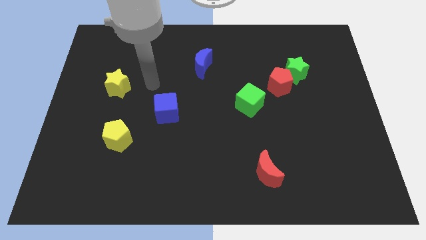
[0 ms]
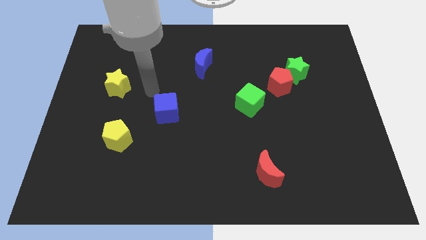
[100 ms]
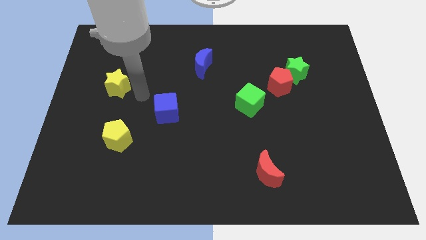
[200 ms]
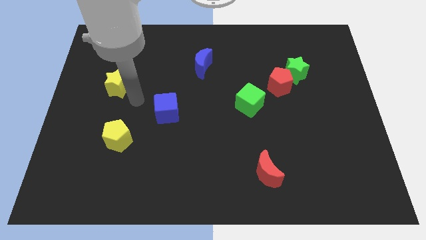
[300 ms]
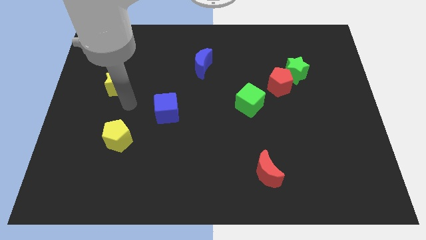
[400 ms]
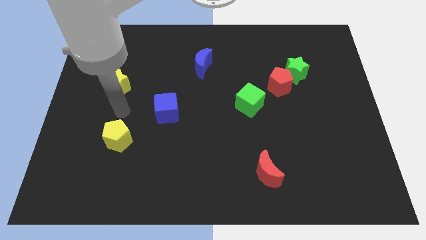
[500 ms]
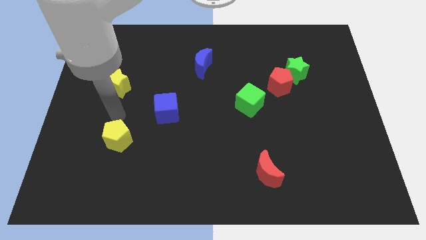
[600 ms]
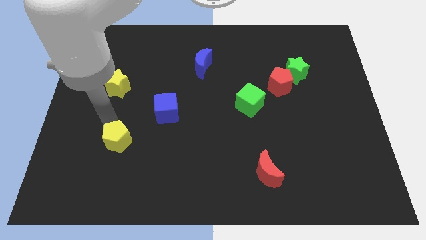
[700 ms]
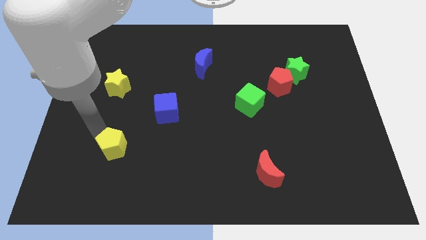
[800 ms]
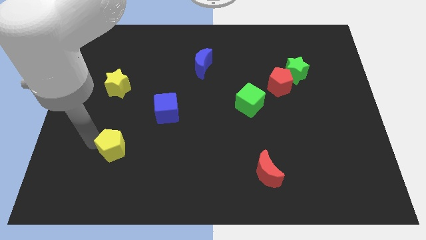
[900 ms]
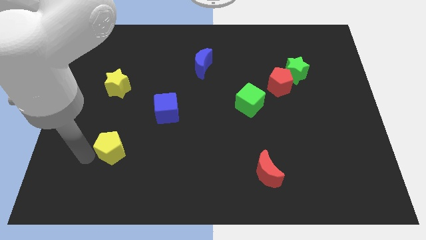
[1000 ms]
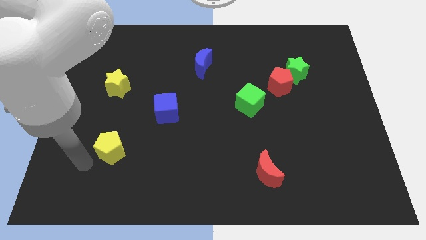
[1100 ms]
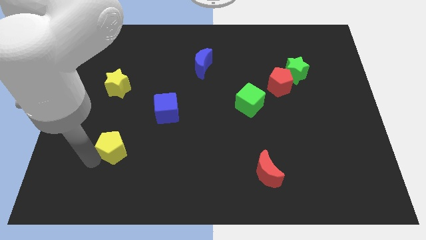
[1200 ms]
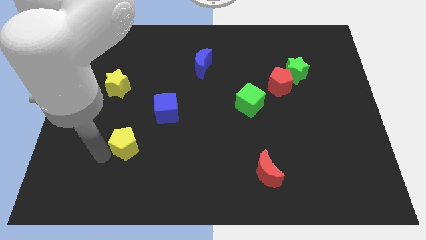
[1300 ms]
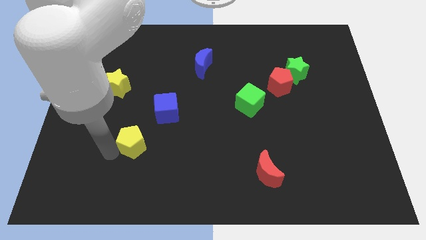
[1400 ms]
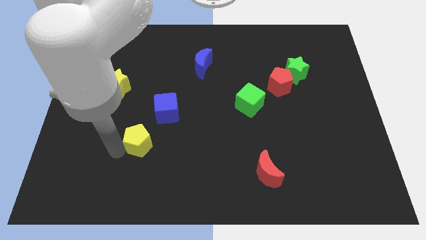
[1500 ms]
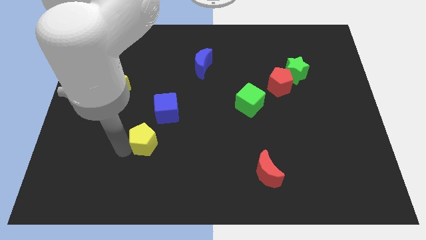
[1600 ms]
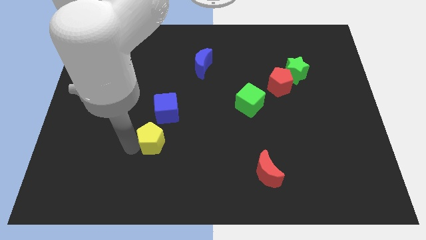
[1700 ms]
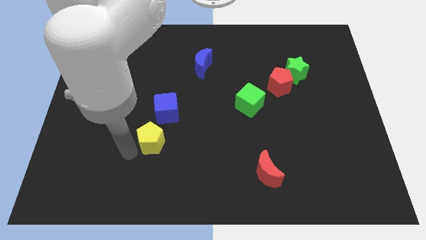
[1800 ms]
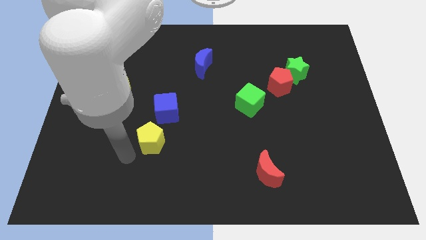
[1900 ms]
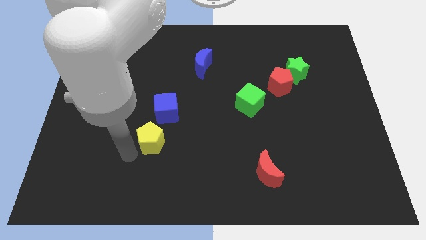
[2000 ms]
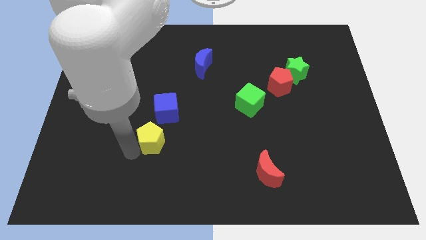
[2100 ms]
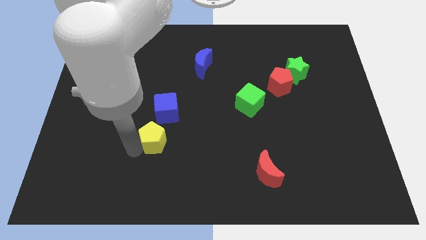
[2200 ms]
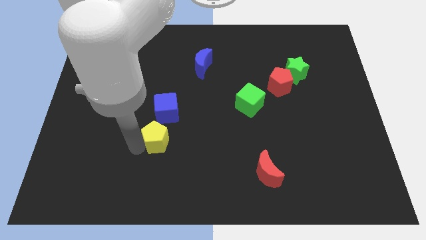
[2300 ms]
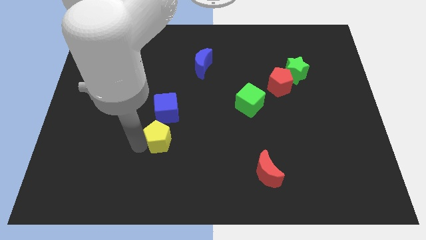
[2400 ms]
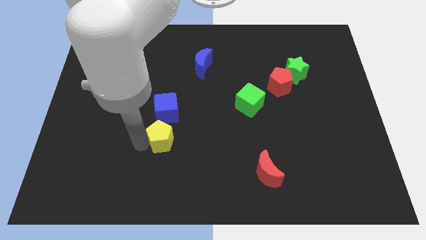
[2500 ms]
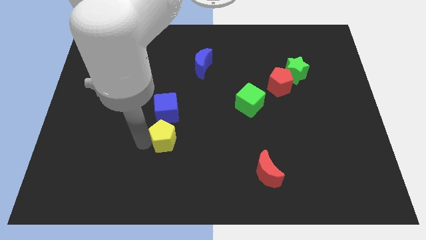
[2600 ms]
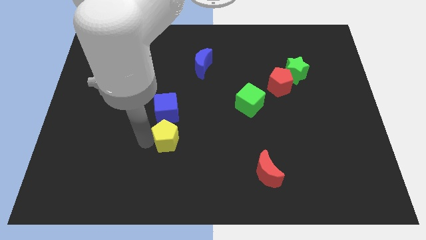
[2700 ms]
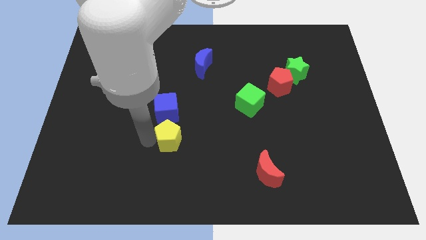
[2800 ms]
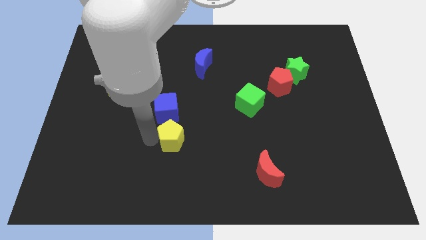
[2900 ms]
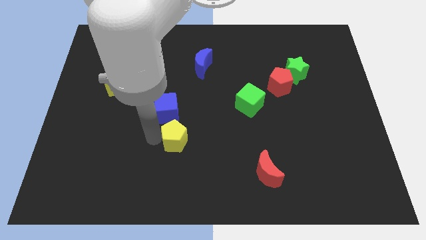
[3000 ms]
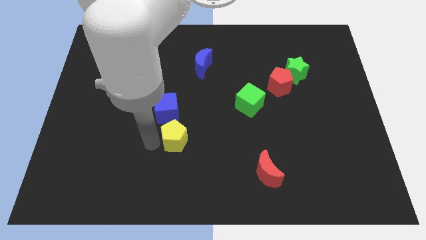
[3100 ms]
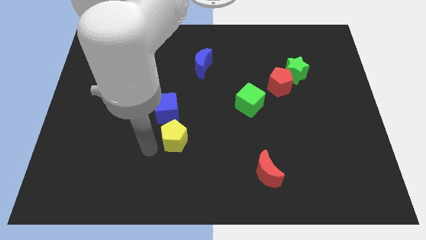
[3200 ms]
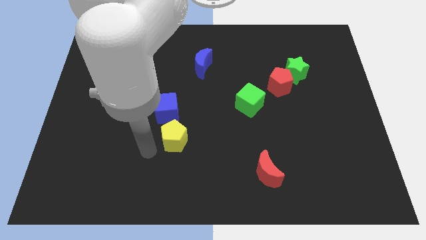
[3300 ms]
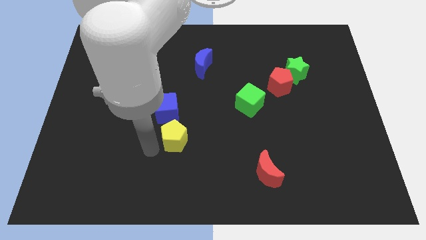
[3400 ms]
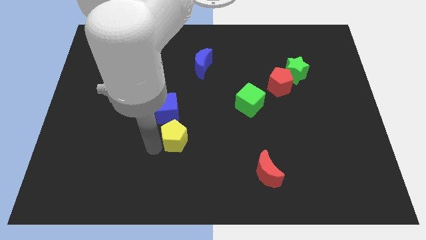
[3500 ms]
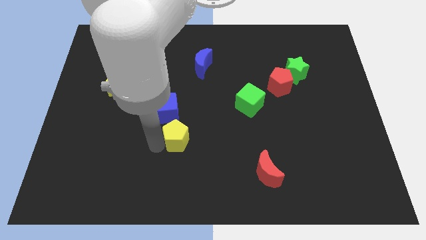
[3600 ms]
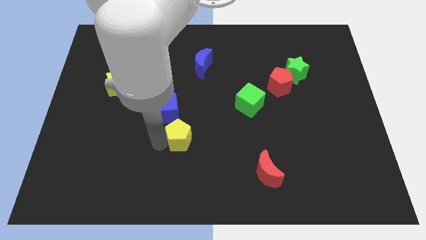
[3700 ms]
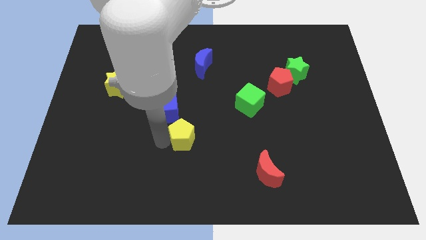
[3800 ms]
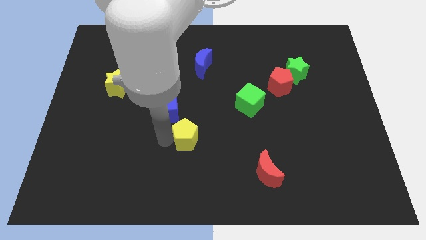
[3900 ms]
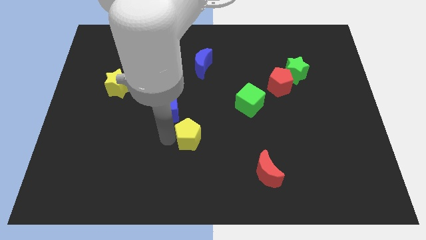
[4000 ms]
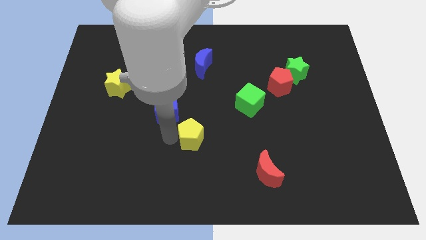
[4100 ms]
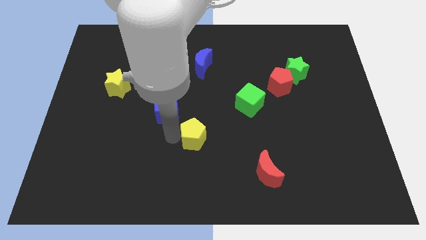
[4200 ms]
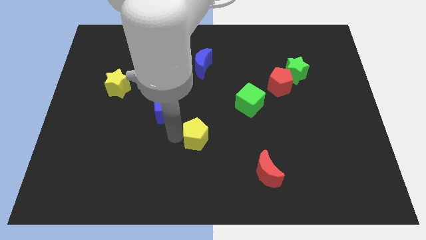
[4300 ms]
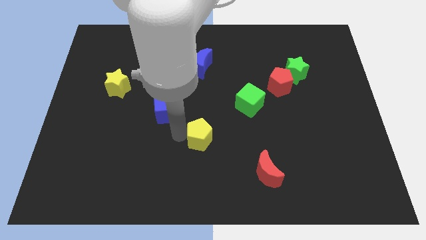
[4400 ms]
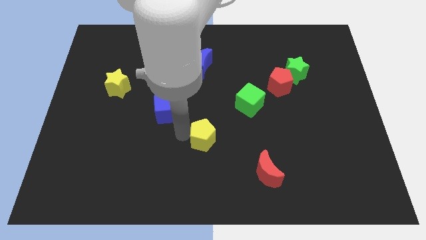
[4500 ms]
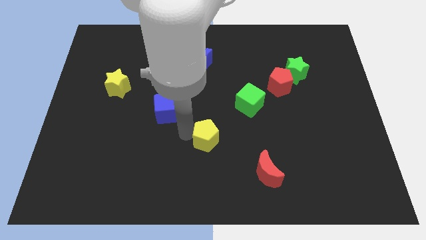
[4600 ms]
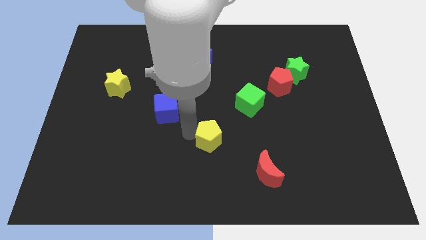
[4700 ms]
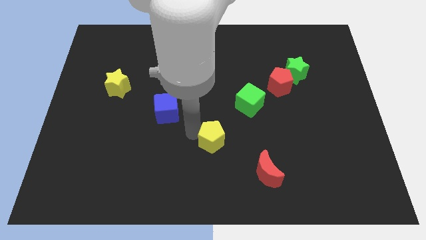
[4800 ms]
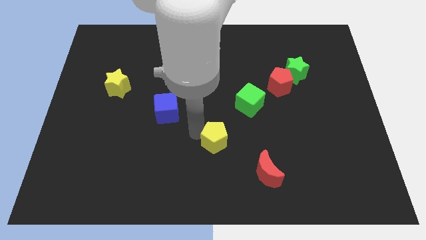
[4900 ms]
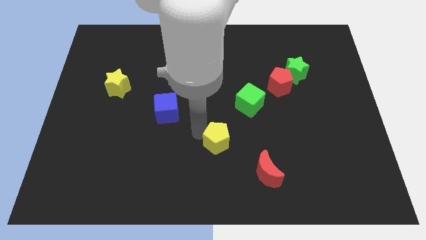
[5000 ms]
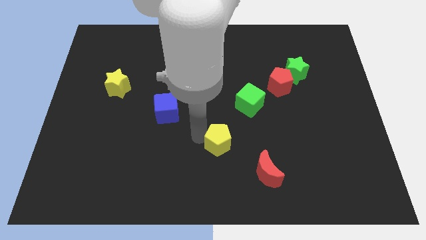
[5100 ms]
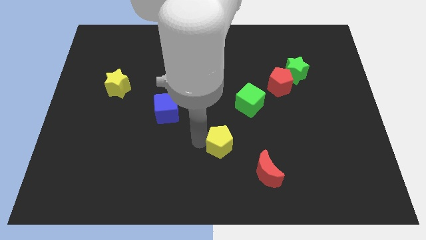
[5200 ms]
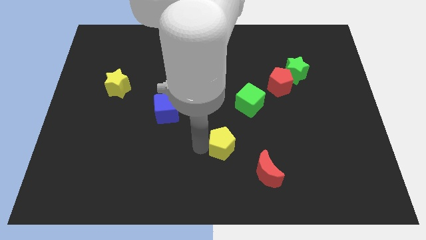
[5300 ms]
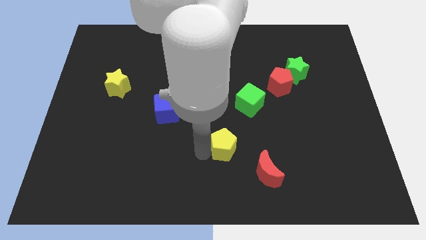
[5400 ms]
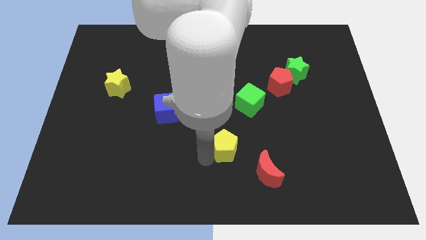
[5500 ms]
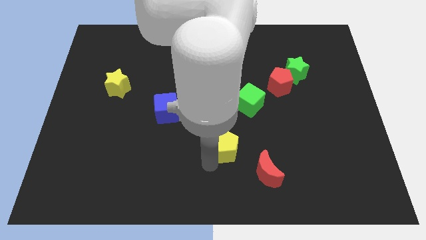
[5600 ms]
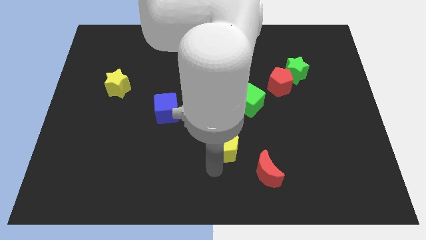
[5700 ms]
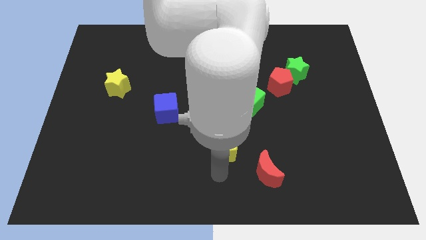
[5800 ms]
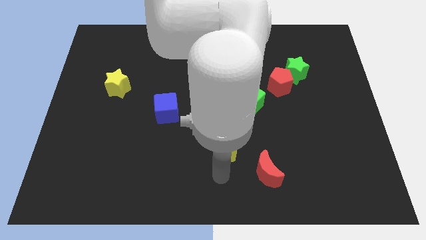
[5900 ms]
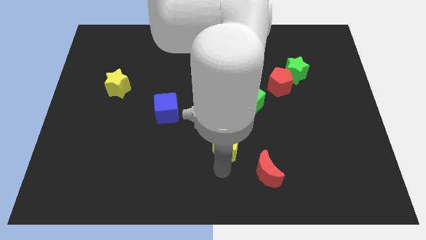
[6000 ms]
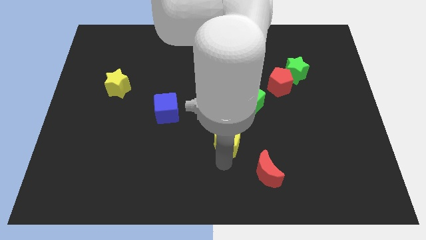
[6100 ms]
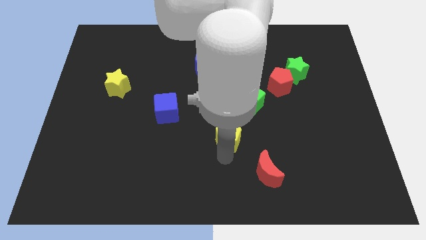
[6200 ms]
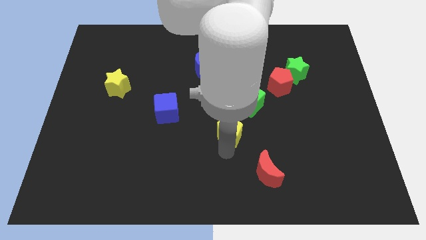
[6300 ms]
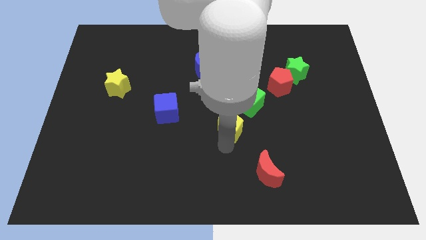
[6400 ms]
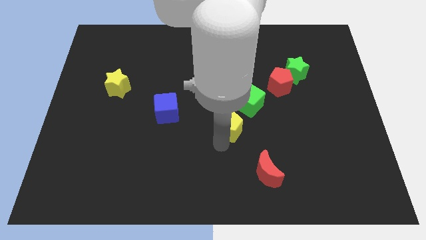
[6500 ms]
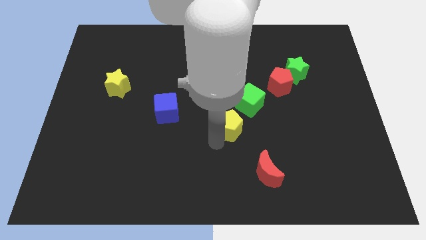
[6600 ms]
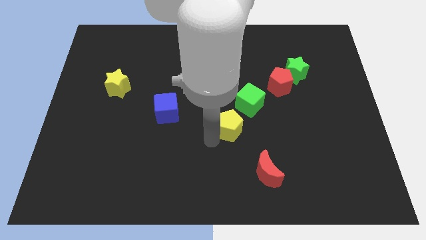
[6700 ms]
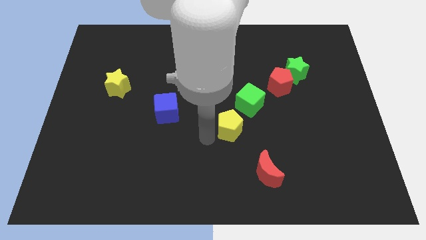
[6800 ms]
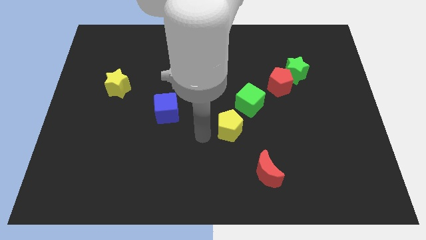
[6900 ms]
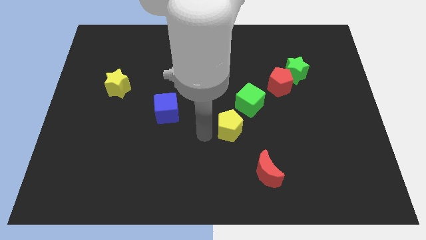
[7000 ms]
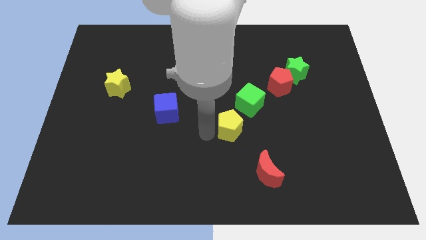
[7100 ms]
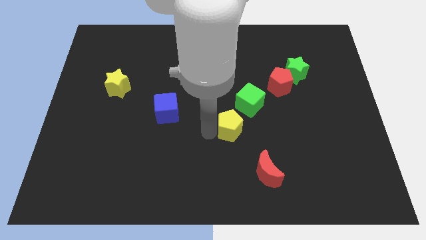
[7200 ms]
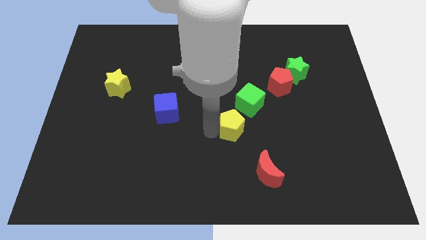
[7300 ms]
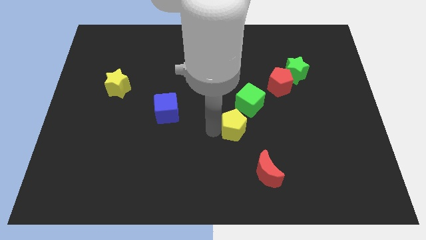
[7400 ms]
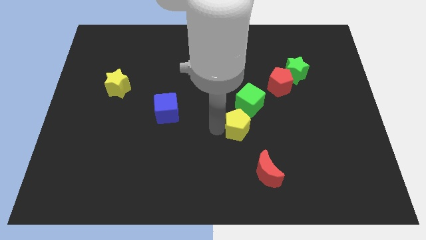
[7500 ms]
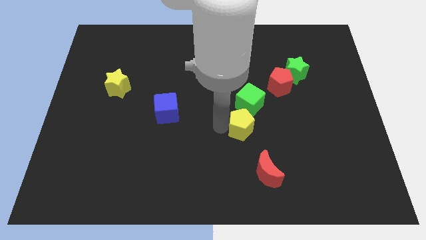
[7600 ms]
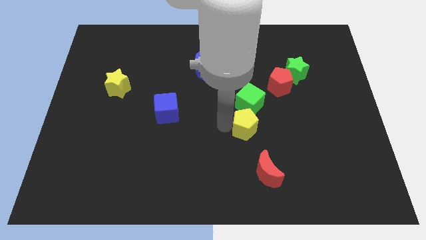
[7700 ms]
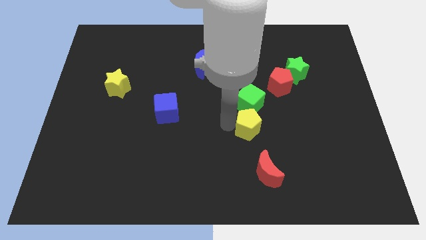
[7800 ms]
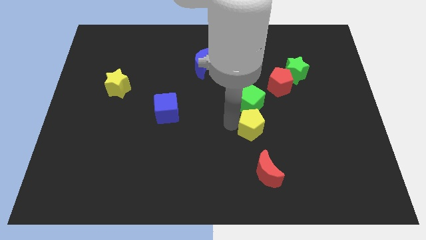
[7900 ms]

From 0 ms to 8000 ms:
push the yellow pentagon to the bottom right of the green cube
